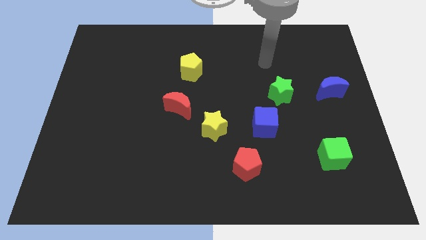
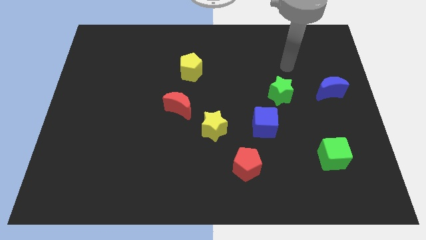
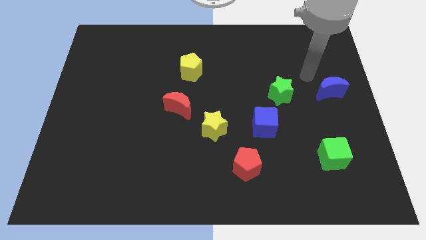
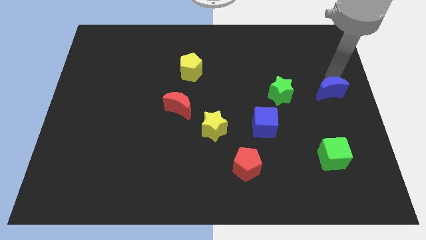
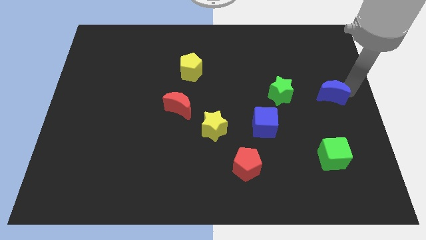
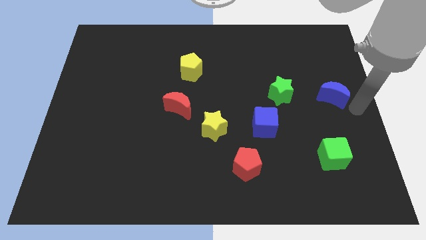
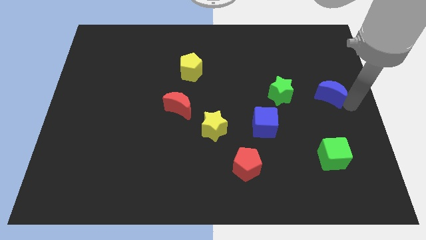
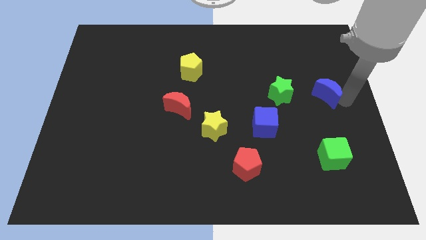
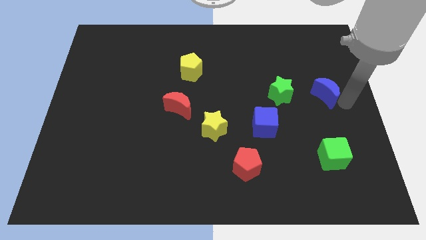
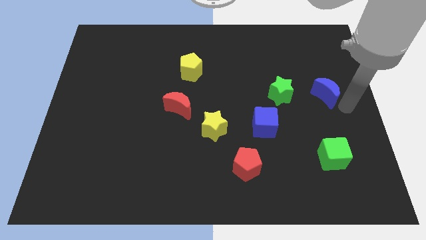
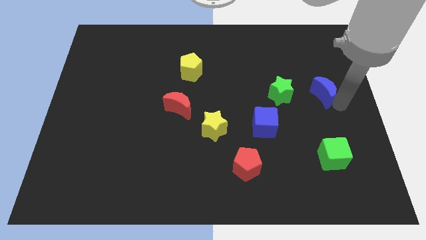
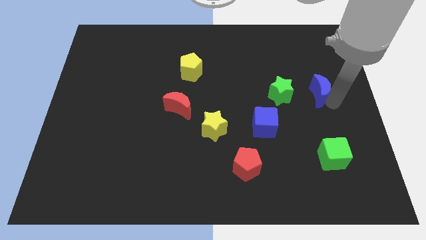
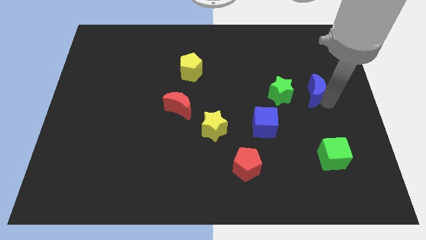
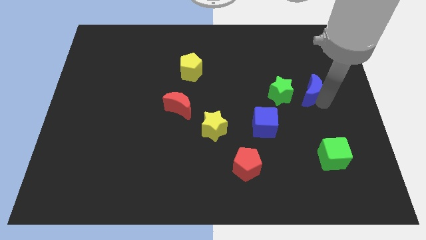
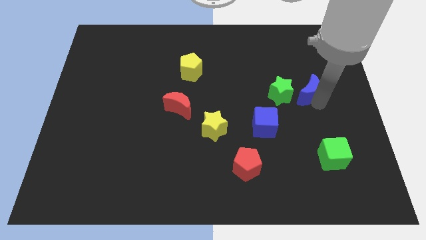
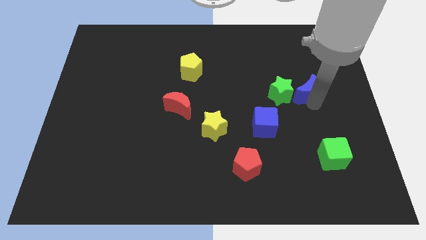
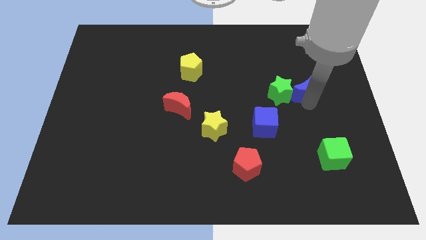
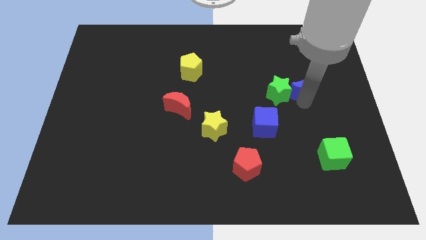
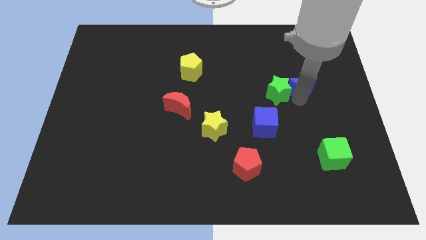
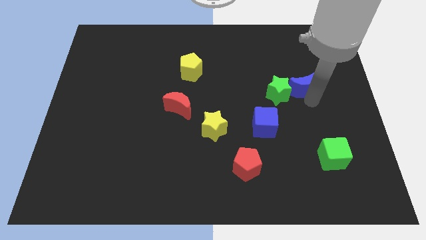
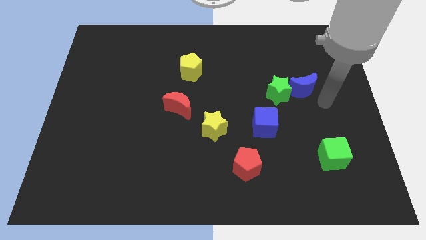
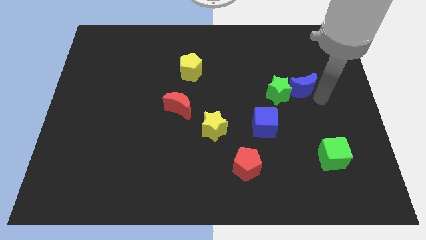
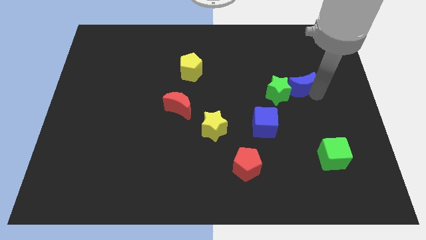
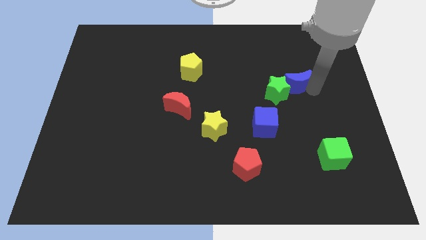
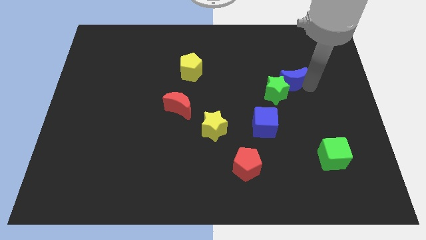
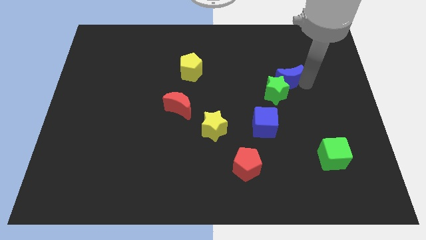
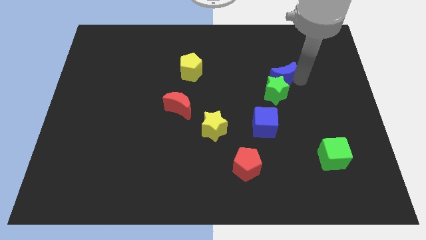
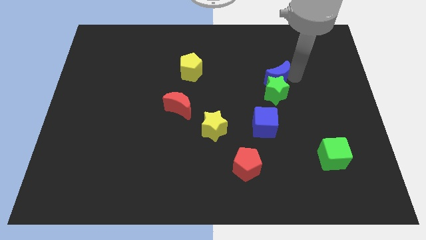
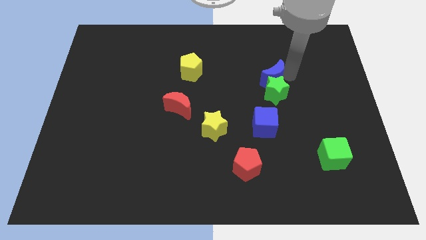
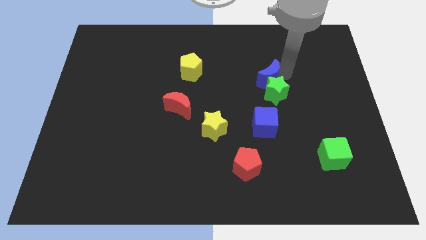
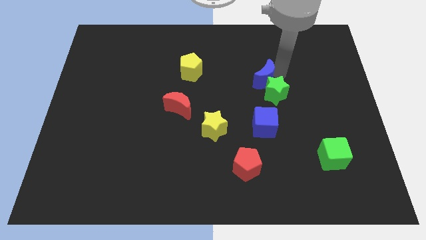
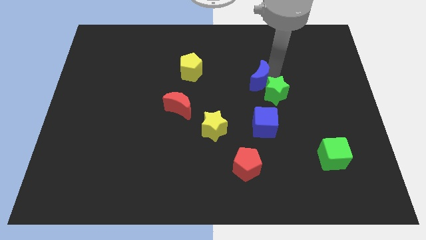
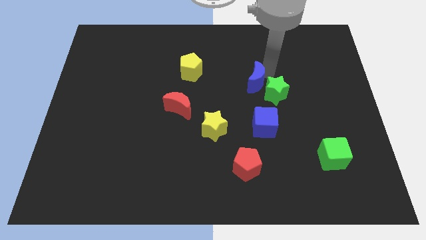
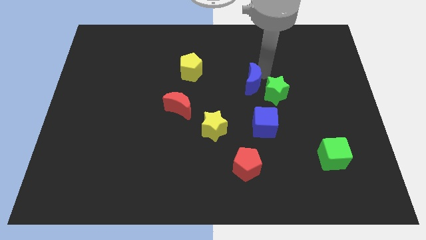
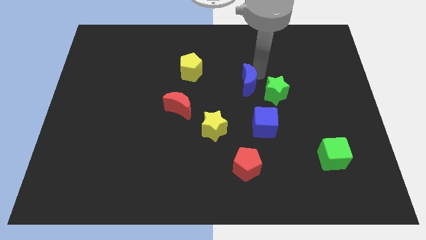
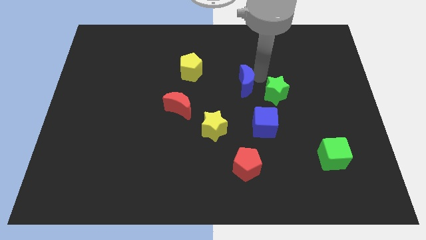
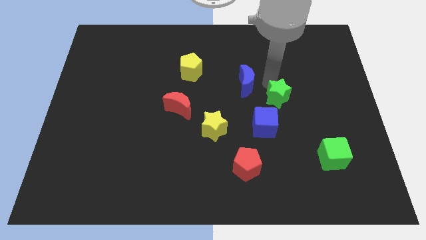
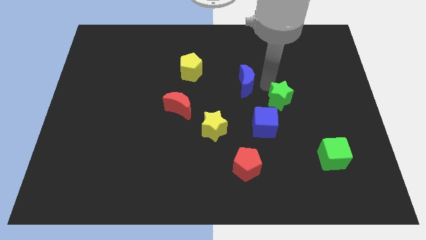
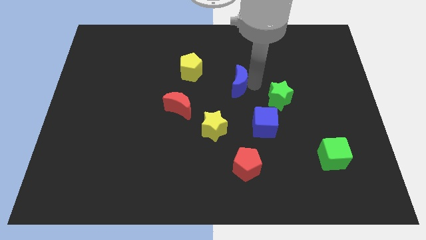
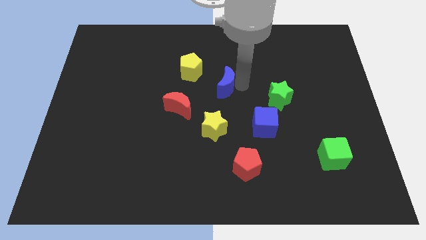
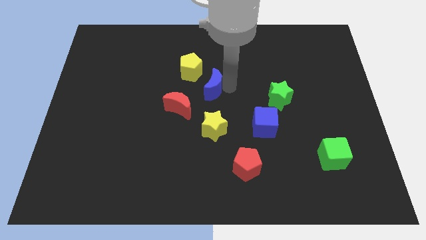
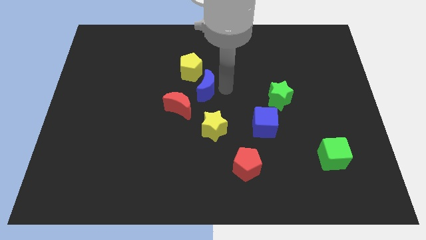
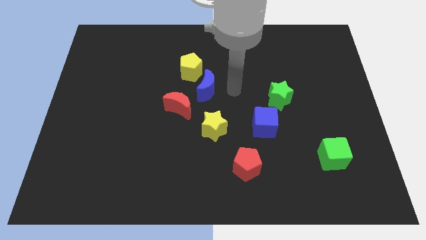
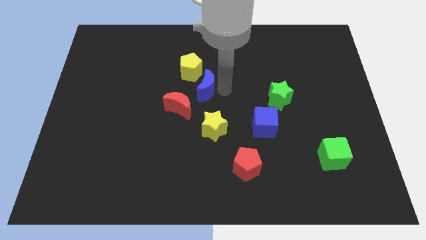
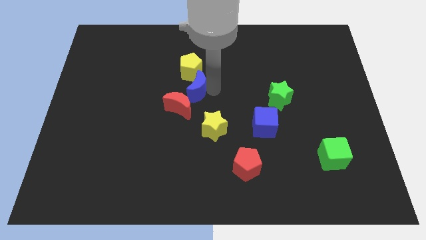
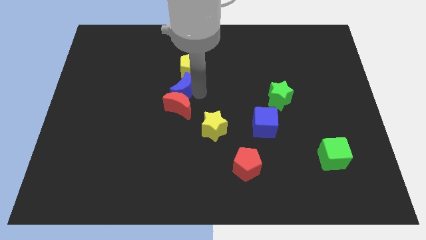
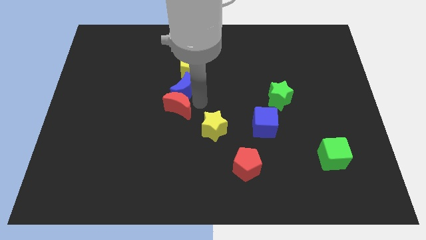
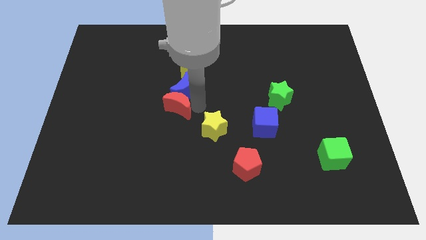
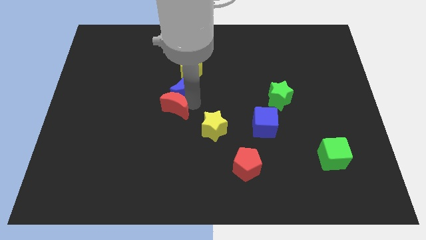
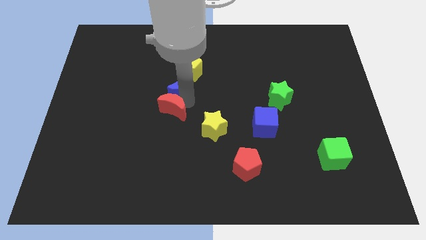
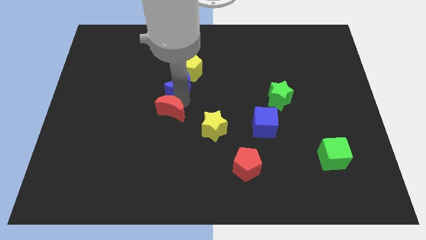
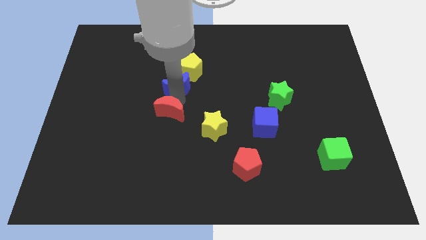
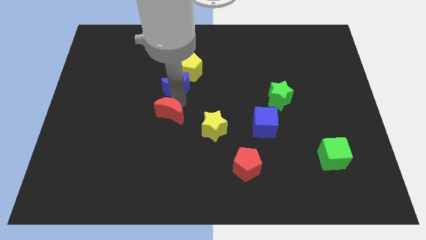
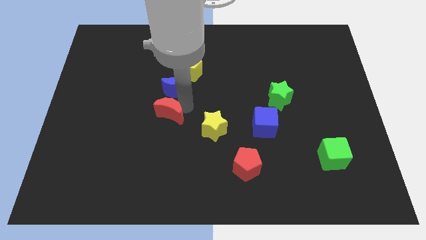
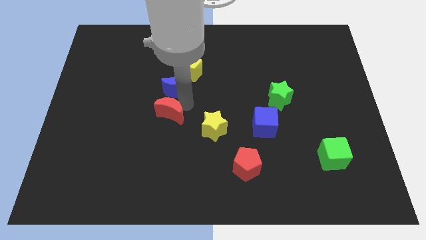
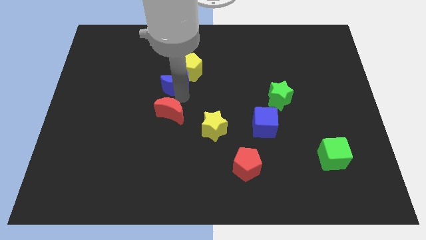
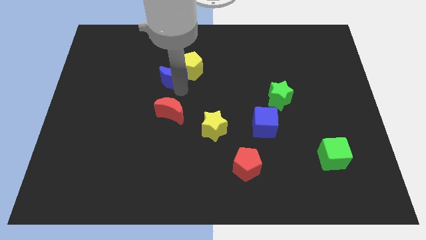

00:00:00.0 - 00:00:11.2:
slide the blue moon just left of the yellow pentagon

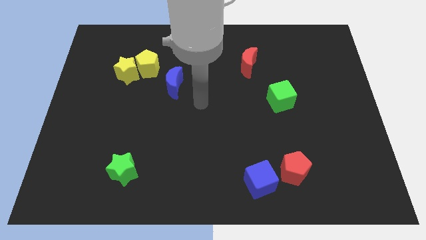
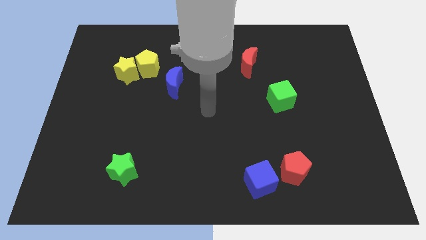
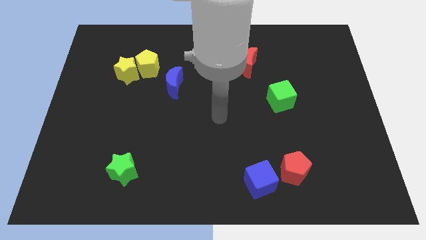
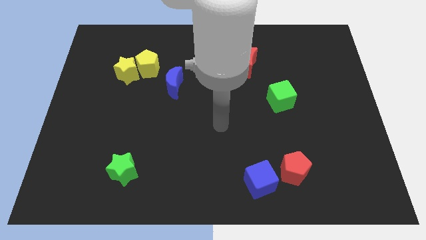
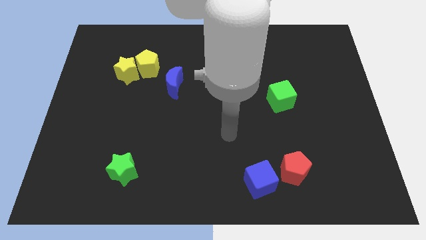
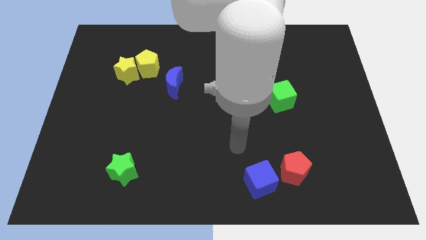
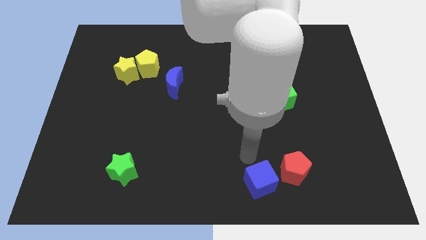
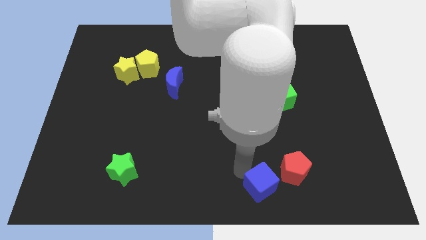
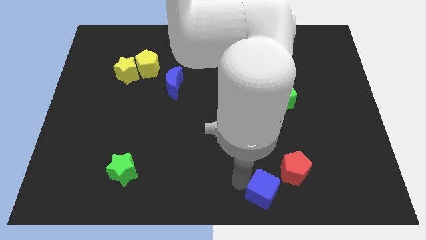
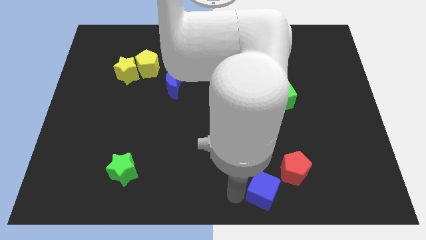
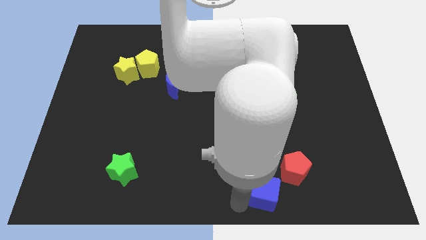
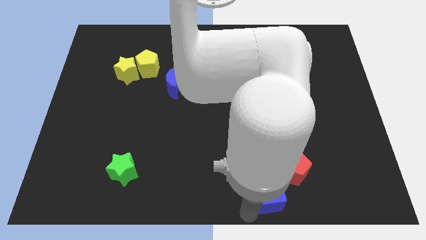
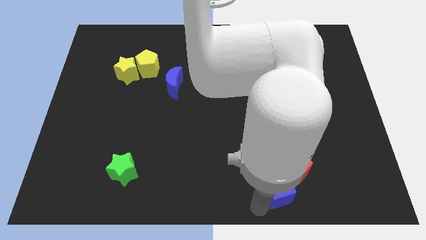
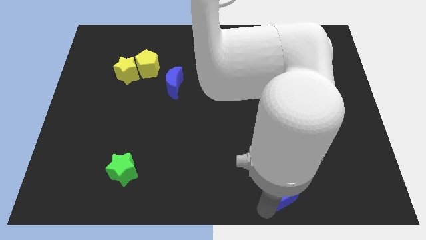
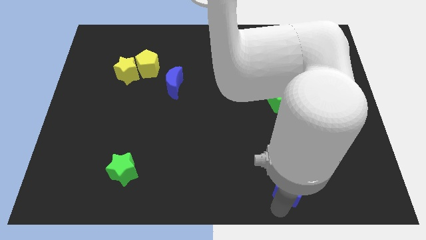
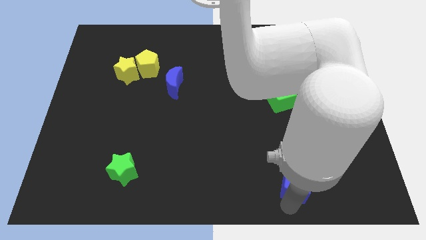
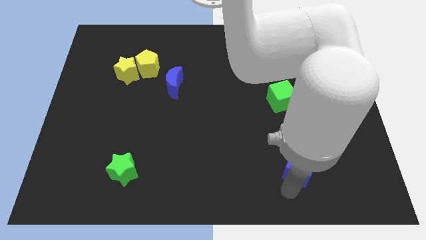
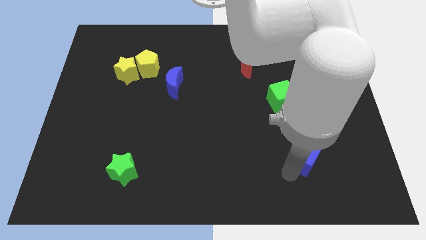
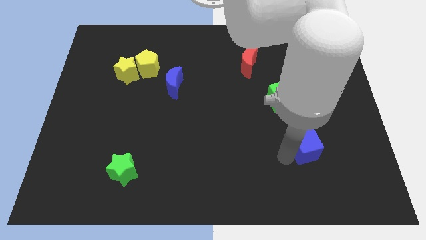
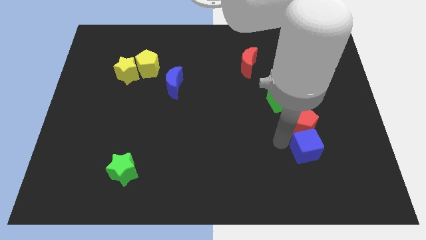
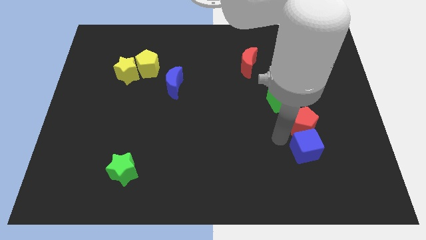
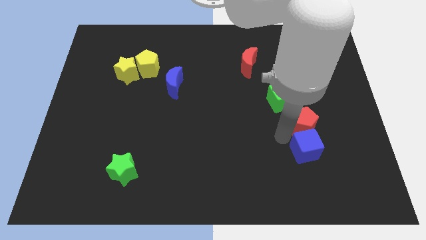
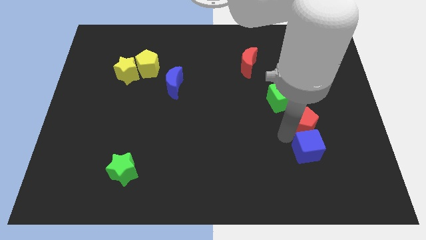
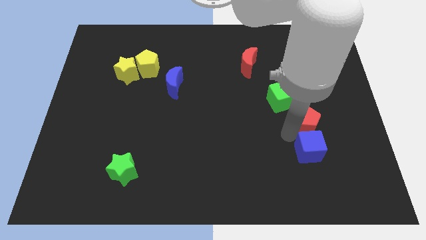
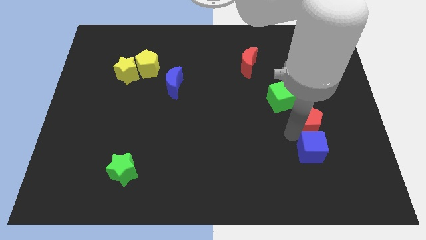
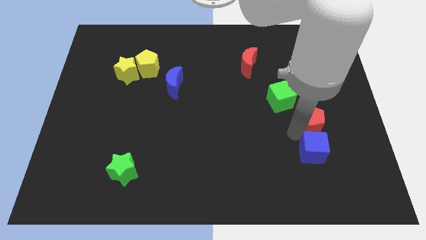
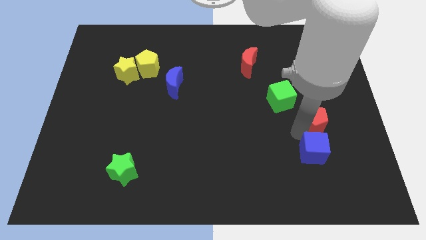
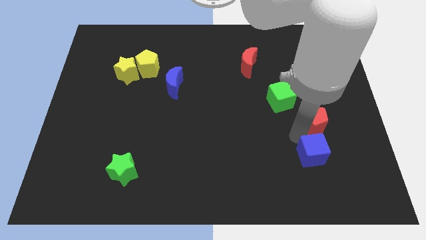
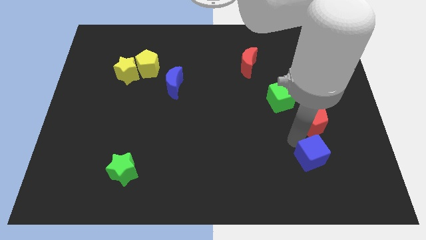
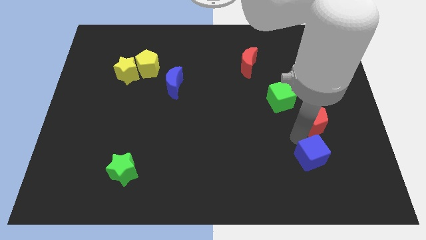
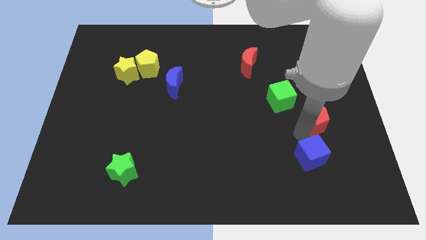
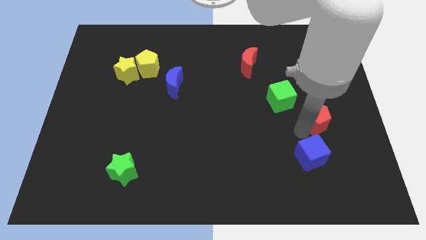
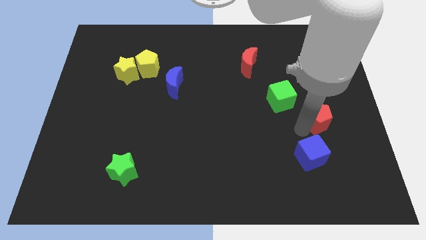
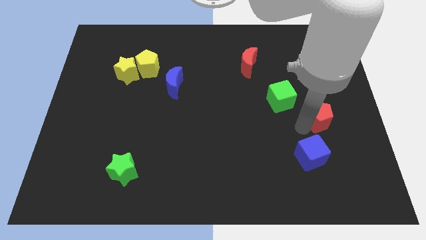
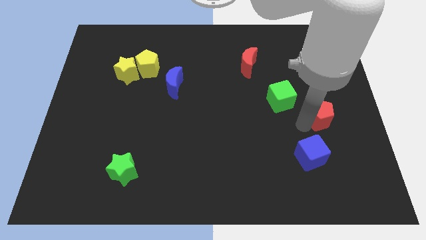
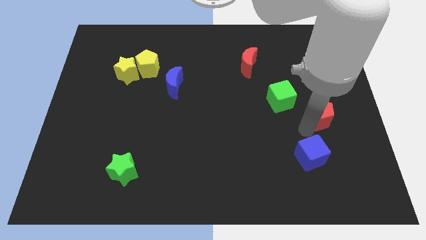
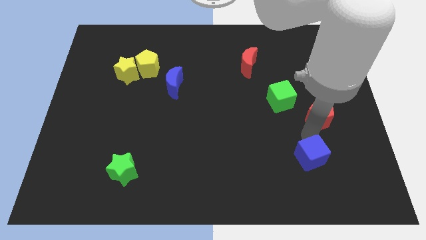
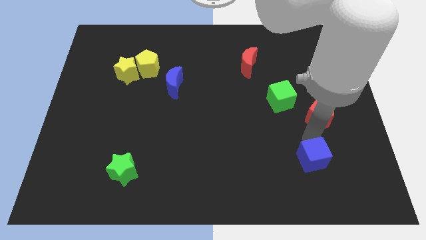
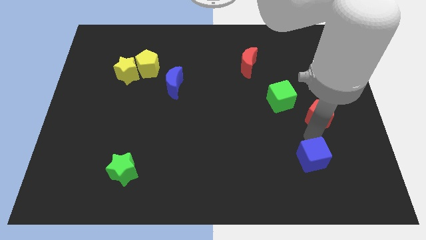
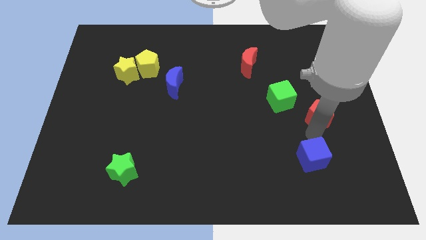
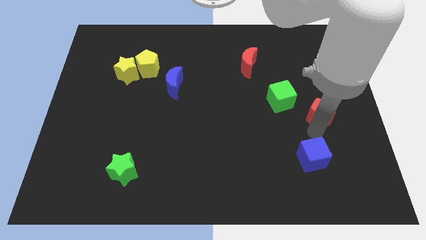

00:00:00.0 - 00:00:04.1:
put the red pentagon right of the green cube
